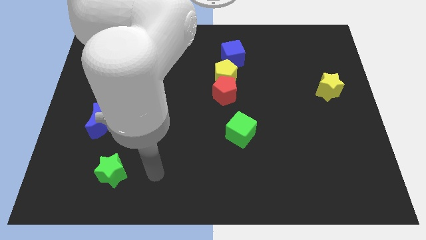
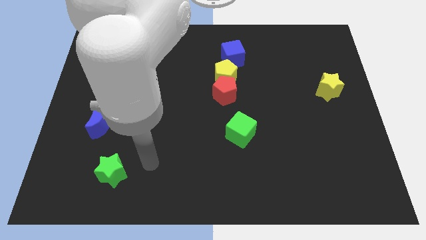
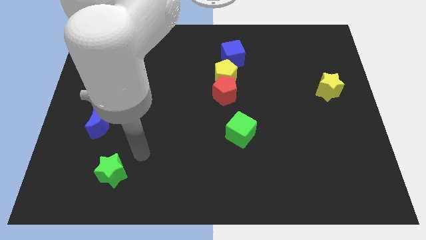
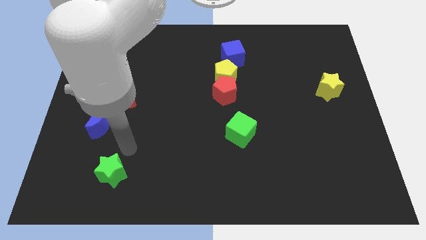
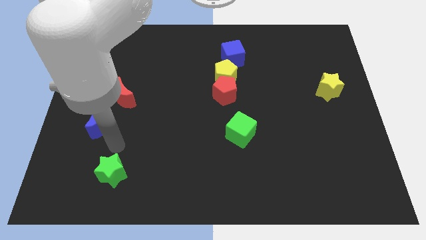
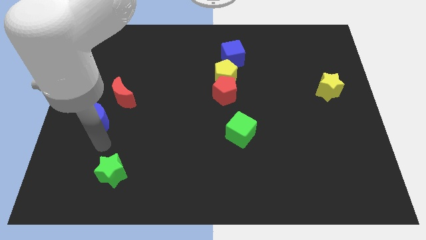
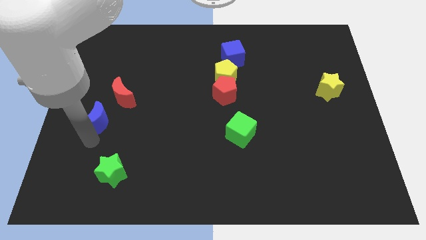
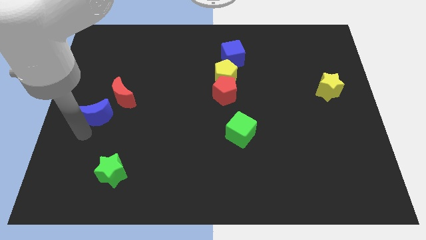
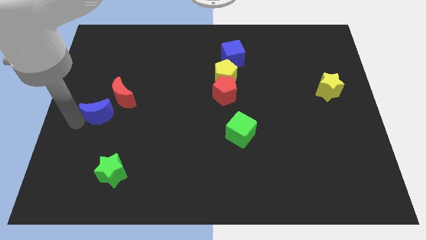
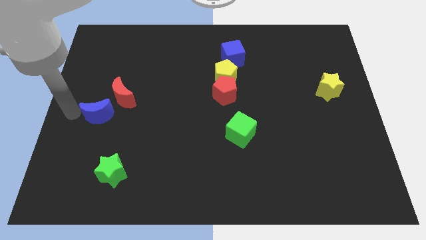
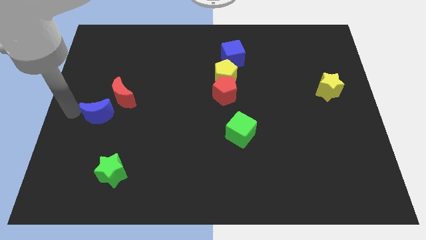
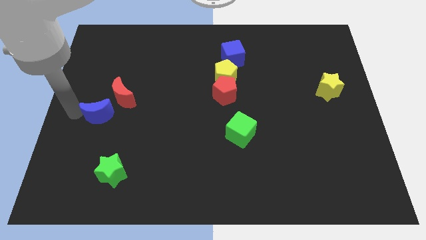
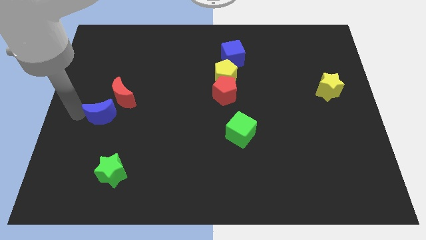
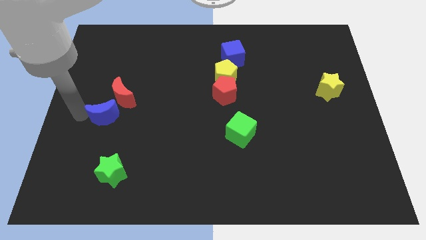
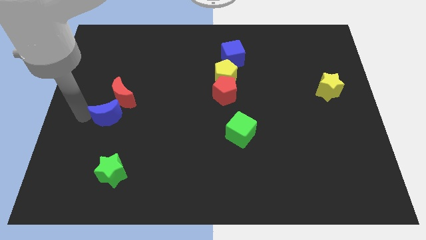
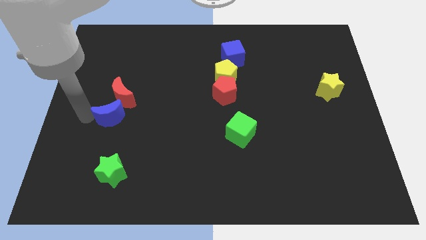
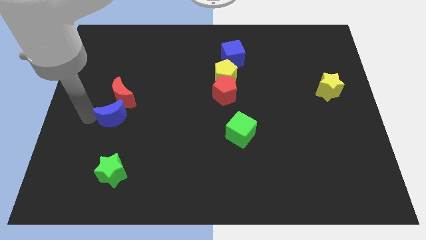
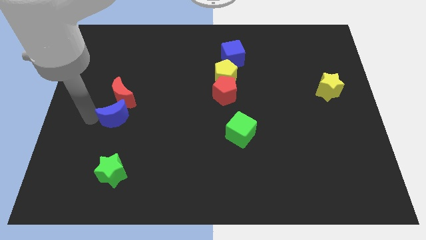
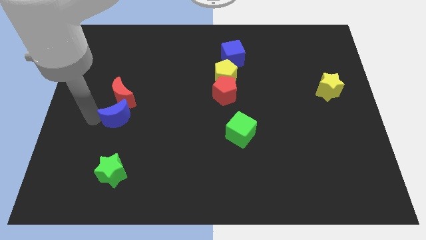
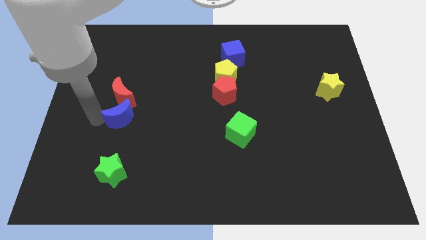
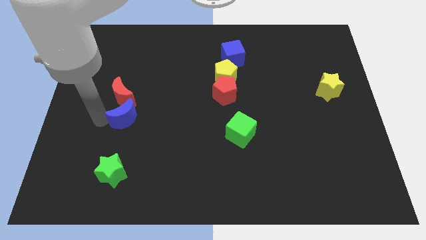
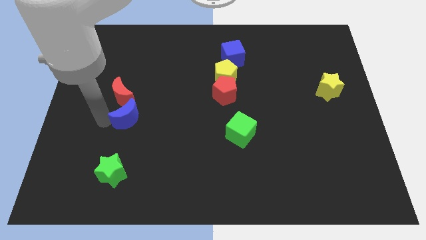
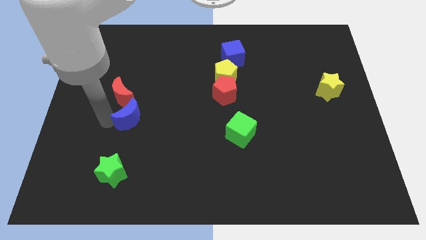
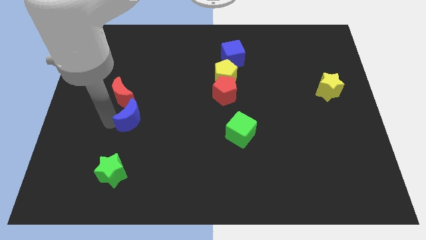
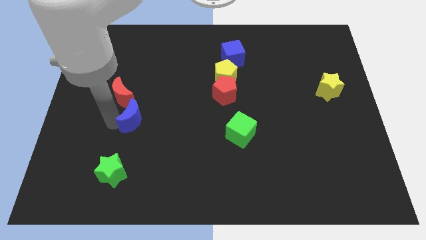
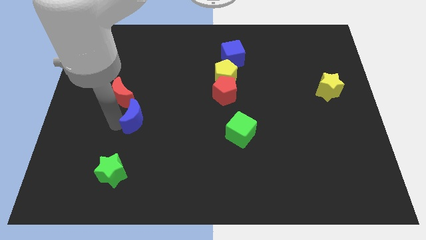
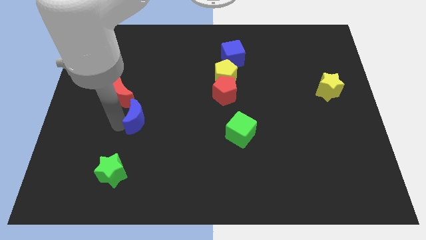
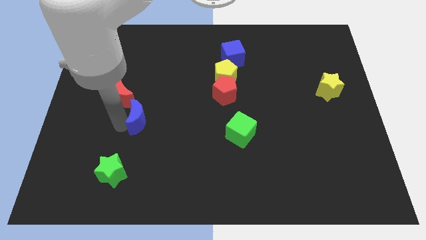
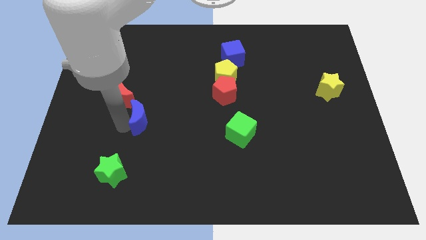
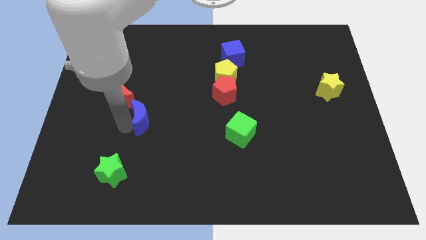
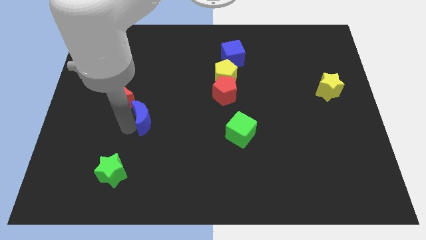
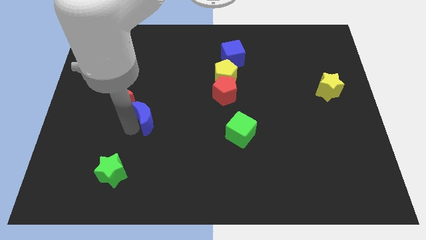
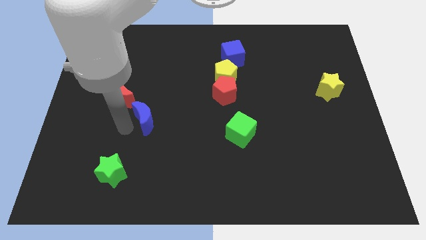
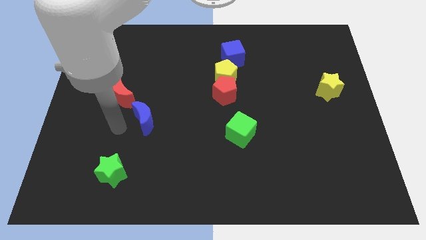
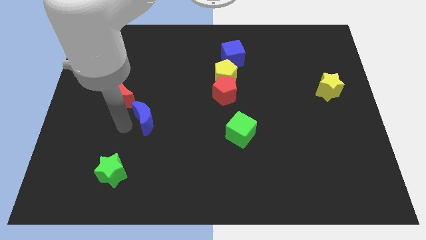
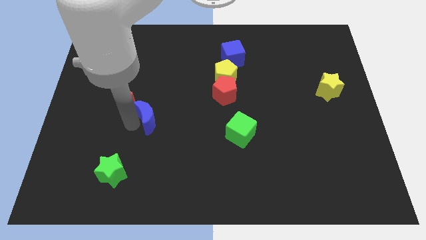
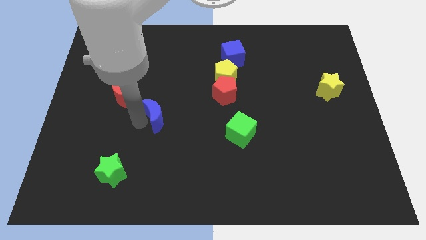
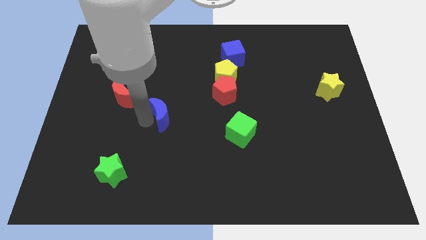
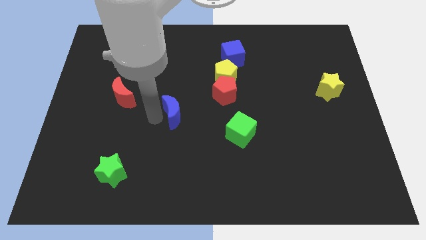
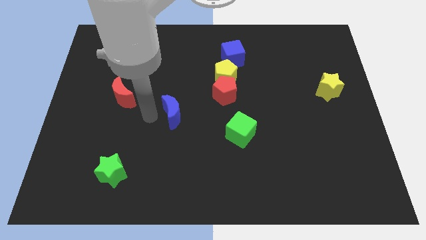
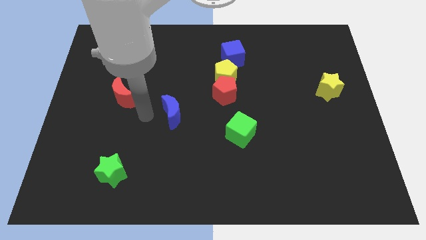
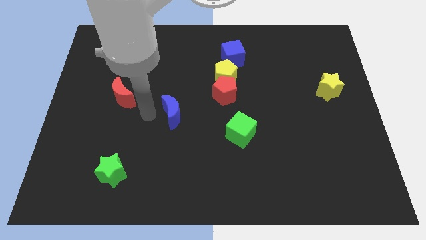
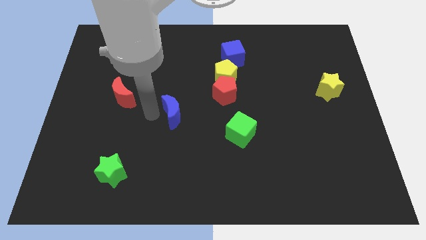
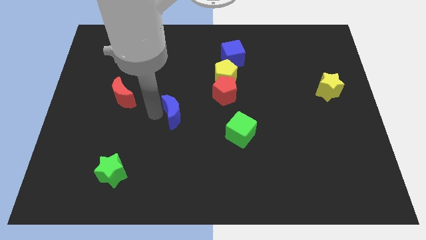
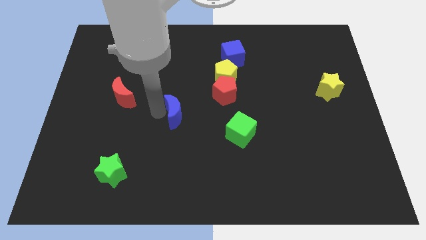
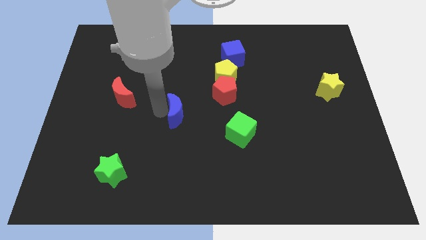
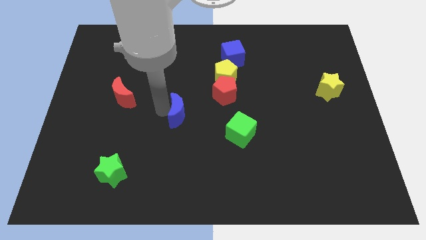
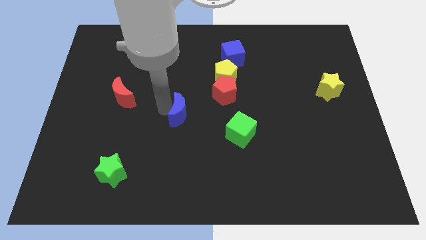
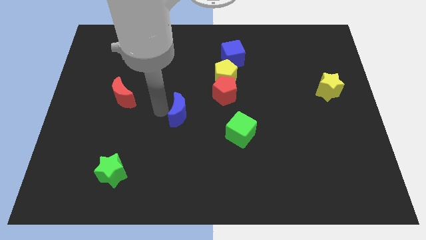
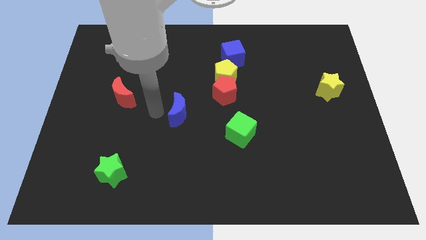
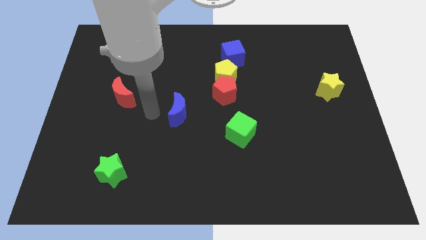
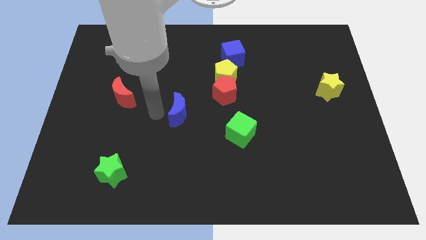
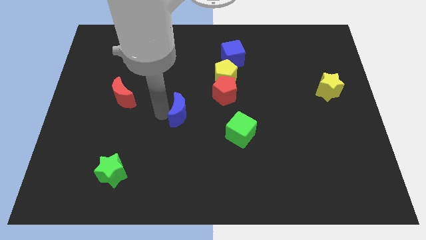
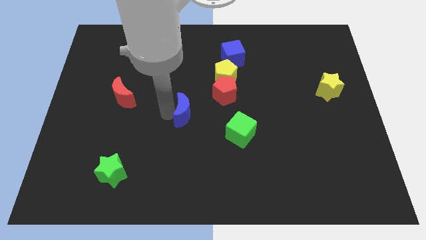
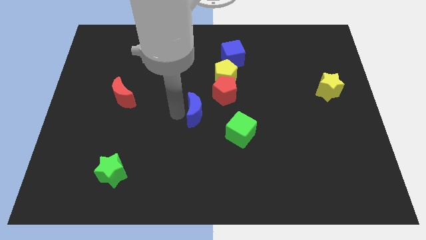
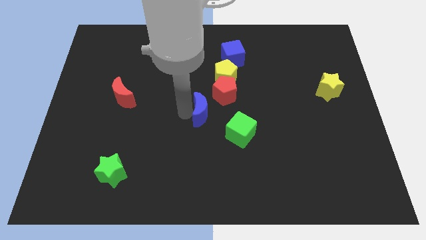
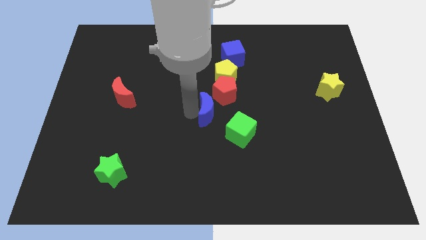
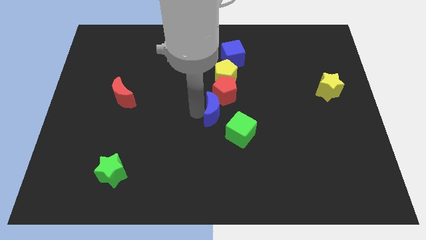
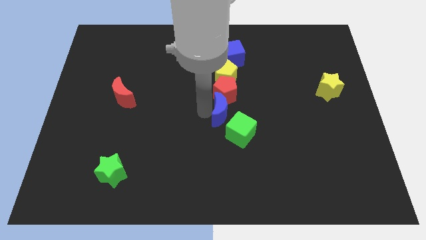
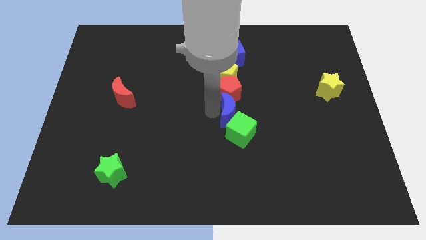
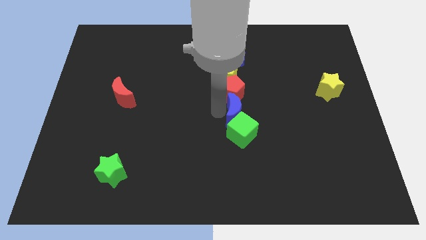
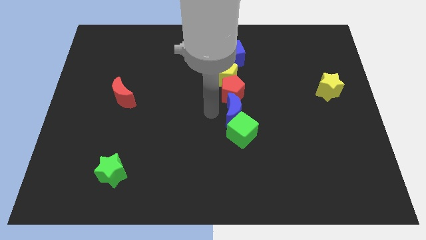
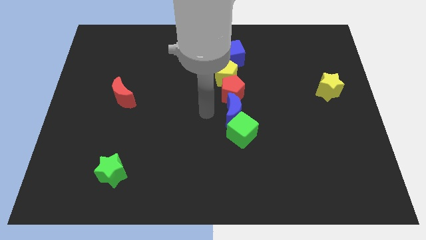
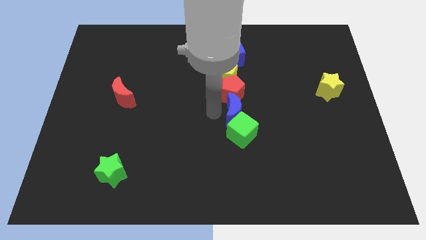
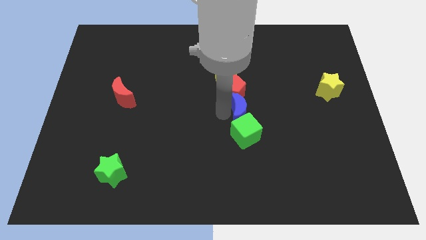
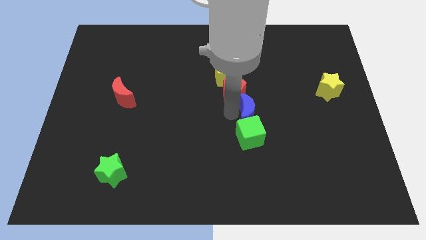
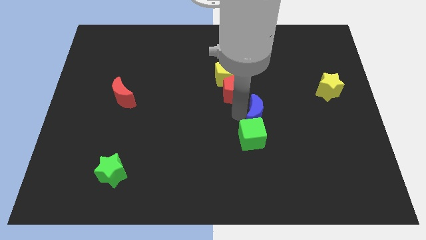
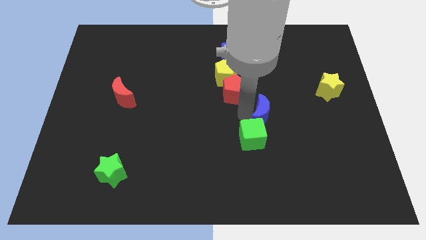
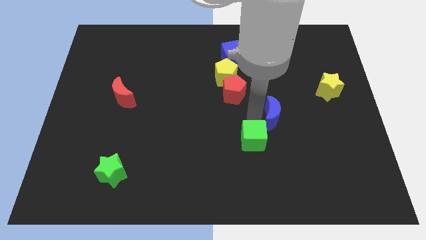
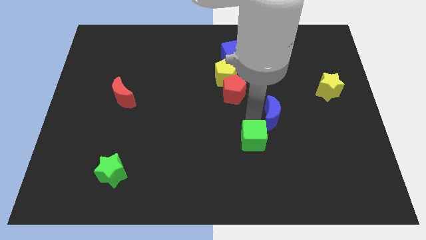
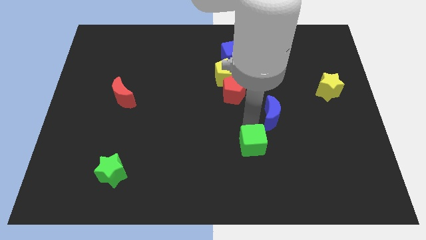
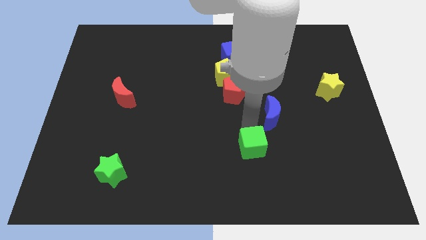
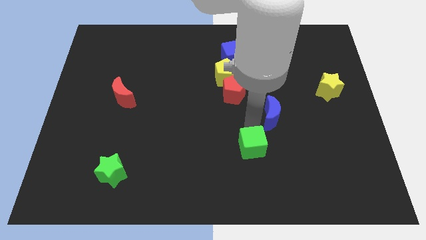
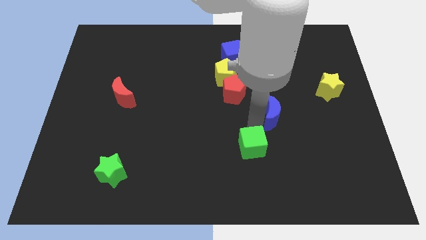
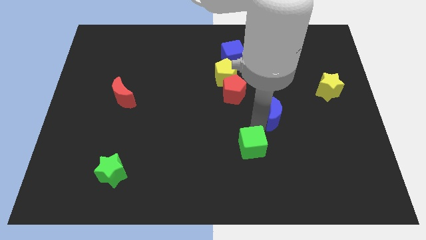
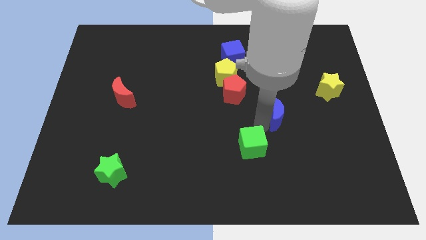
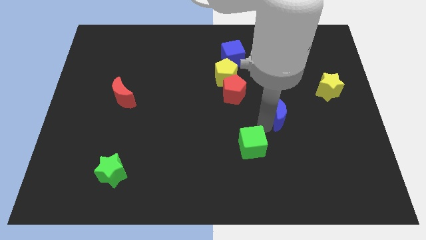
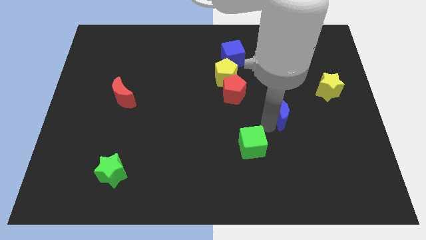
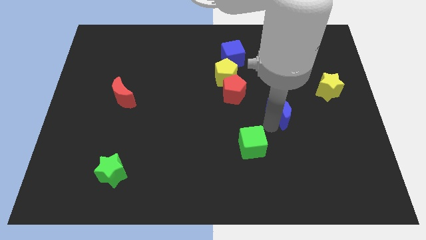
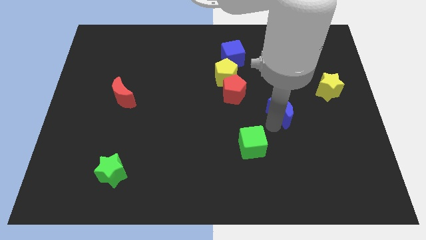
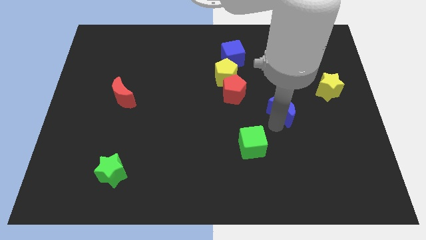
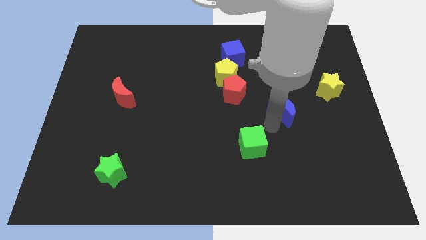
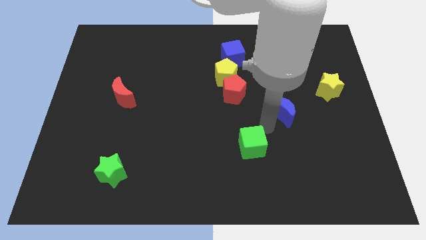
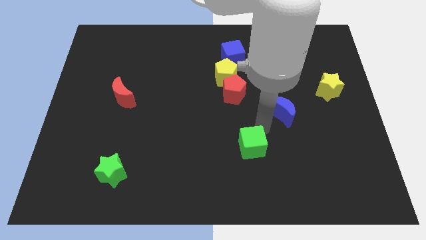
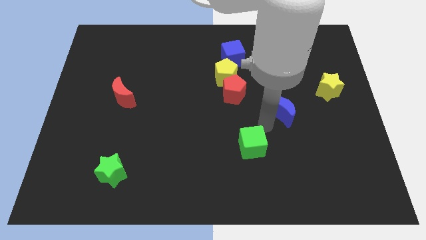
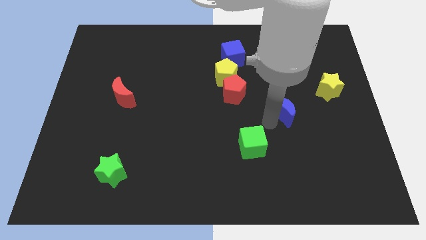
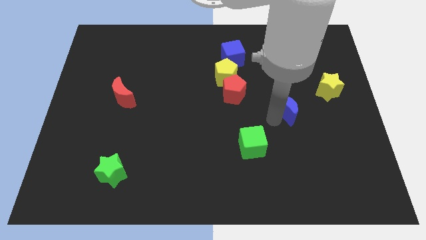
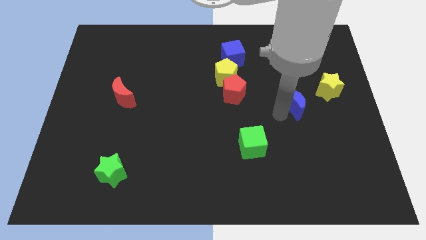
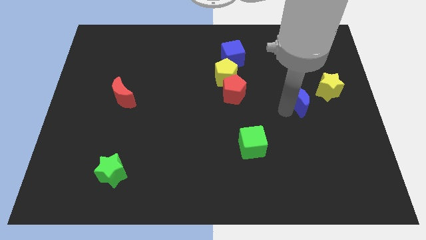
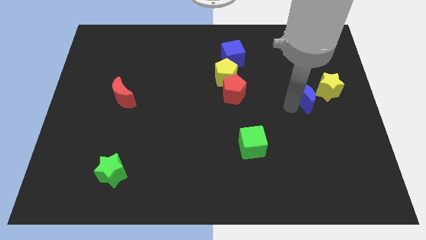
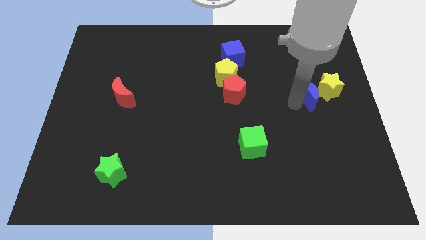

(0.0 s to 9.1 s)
move the blue moon next to the yellow star
